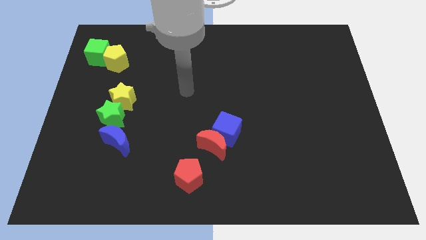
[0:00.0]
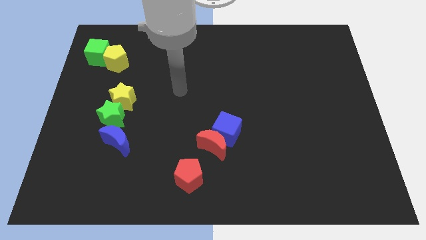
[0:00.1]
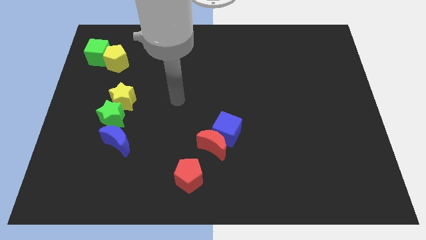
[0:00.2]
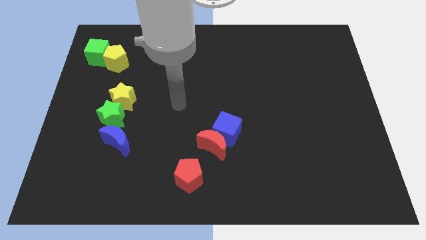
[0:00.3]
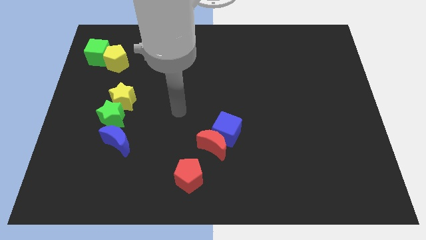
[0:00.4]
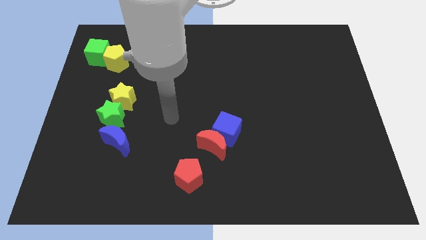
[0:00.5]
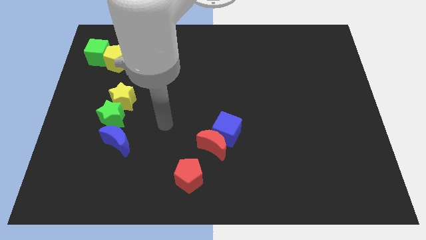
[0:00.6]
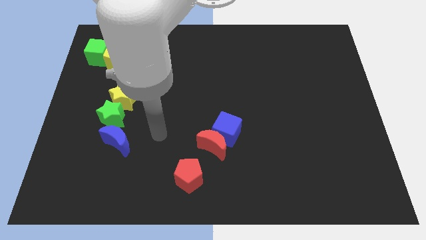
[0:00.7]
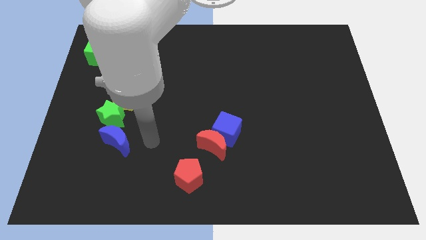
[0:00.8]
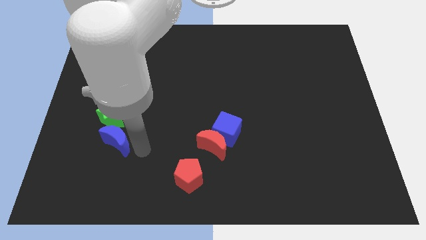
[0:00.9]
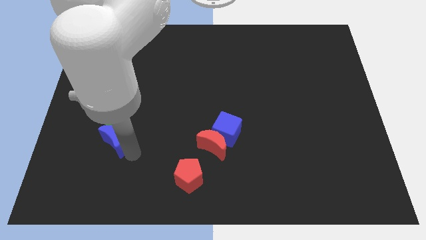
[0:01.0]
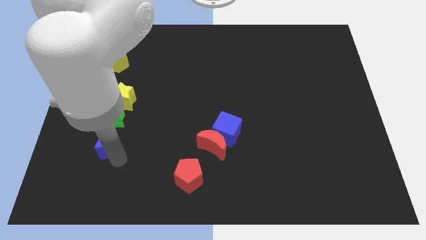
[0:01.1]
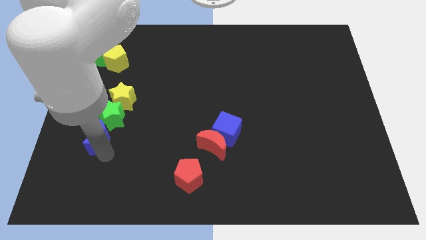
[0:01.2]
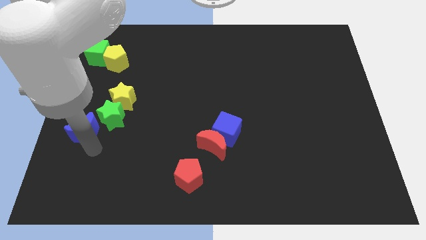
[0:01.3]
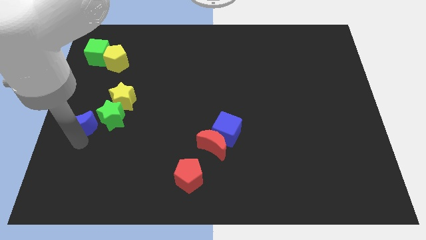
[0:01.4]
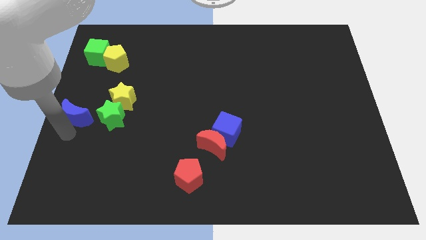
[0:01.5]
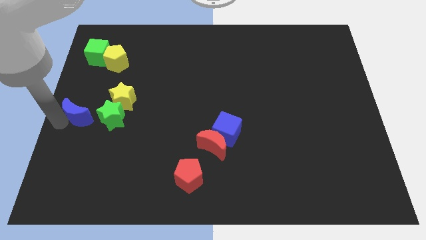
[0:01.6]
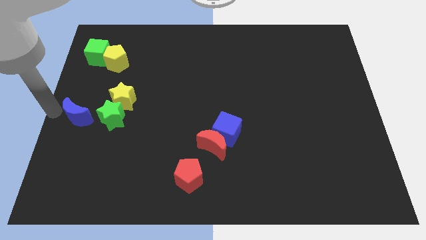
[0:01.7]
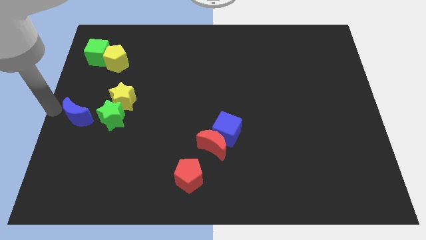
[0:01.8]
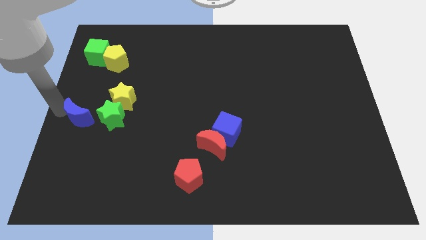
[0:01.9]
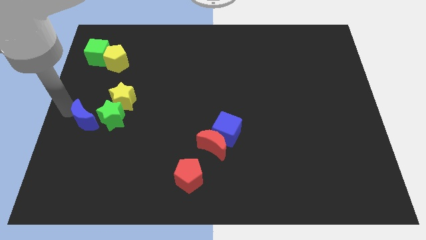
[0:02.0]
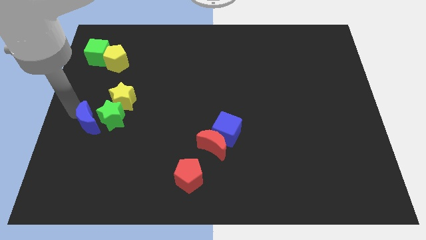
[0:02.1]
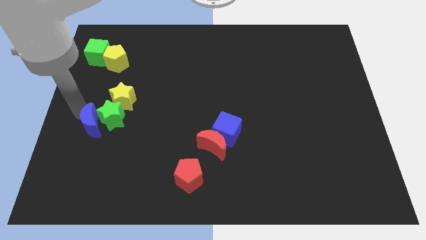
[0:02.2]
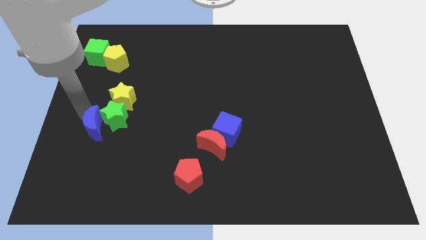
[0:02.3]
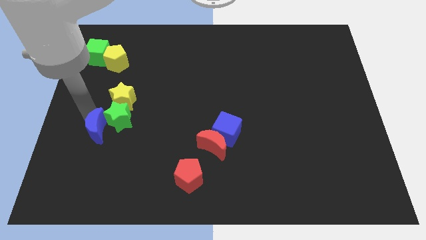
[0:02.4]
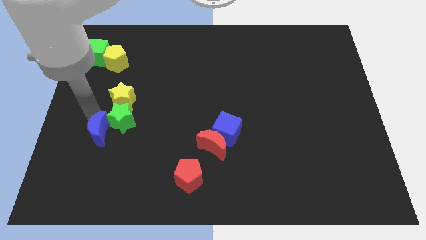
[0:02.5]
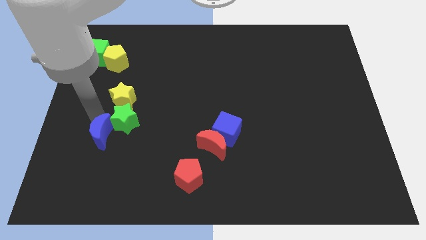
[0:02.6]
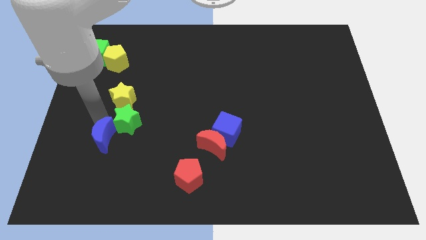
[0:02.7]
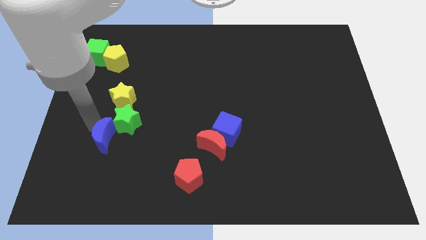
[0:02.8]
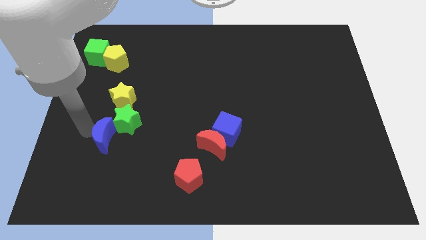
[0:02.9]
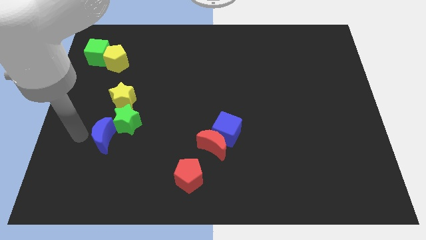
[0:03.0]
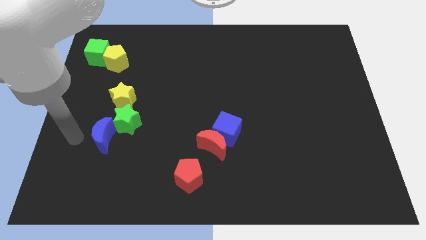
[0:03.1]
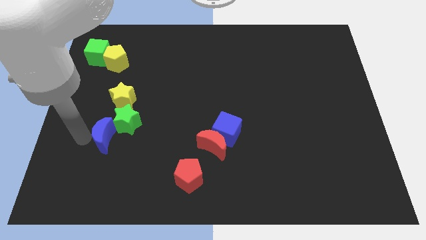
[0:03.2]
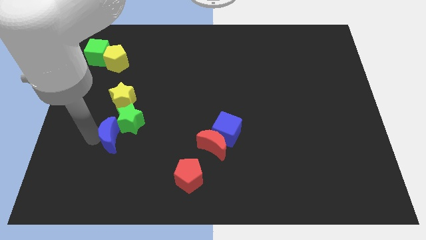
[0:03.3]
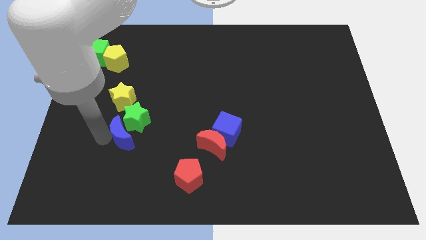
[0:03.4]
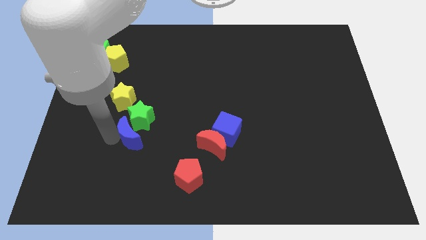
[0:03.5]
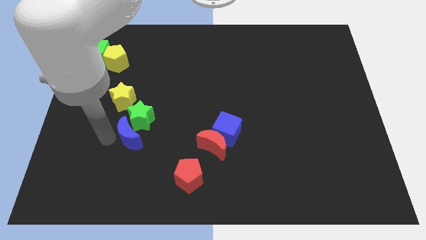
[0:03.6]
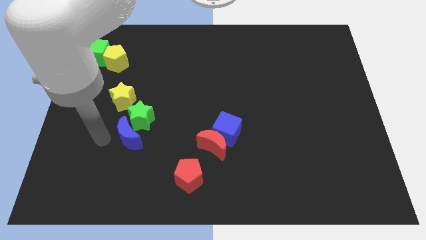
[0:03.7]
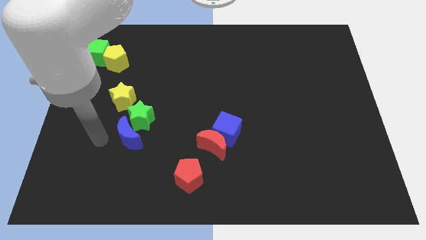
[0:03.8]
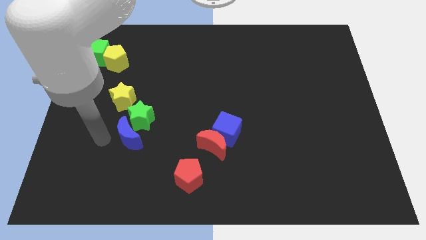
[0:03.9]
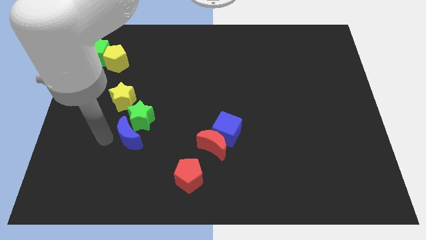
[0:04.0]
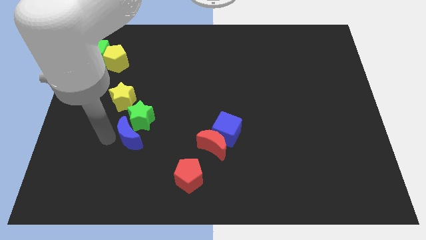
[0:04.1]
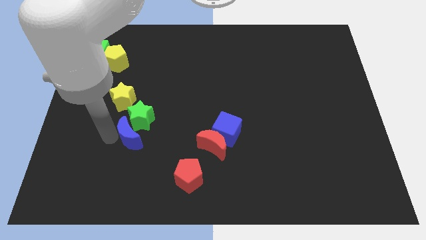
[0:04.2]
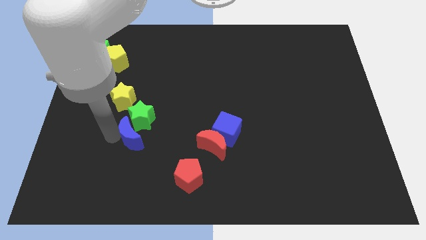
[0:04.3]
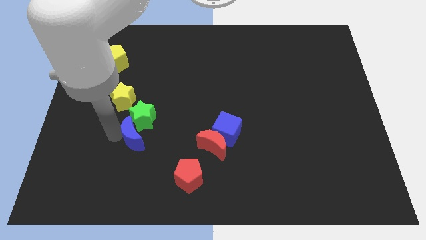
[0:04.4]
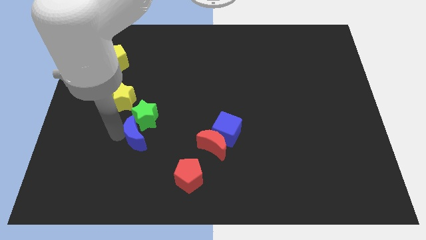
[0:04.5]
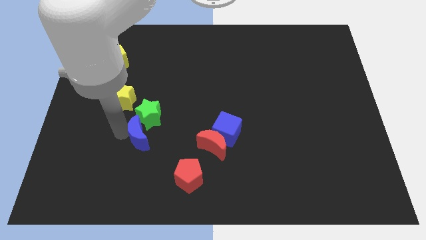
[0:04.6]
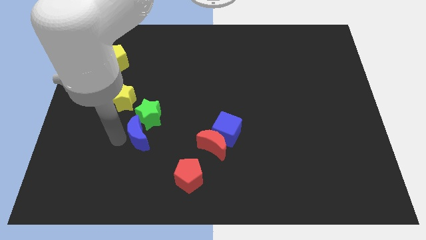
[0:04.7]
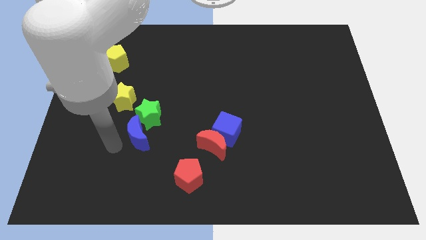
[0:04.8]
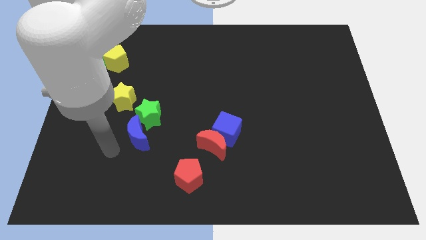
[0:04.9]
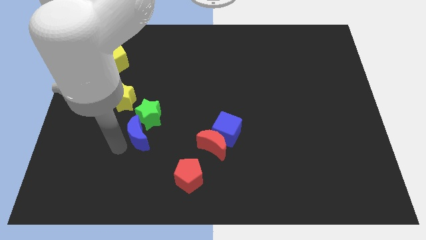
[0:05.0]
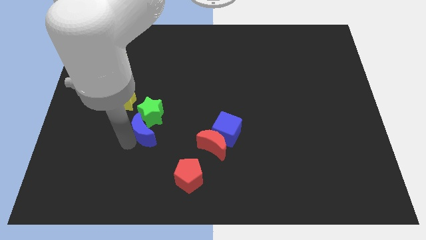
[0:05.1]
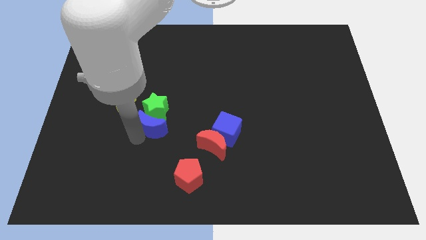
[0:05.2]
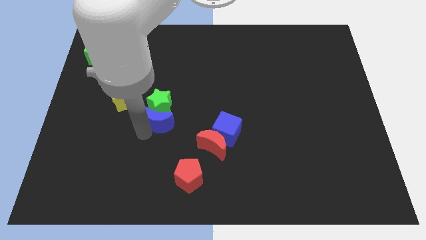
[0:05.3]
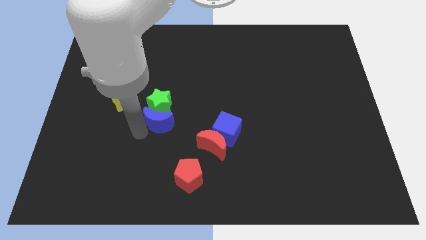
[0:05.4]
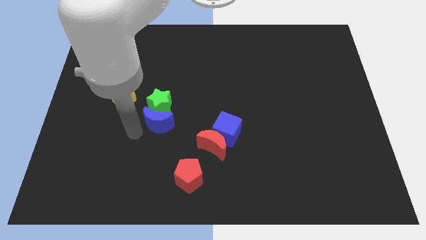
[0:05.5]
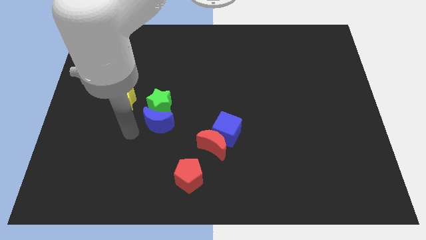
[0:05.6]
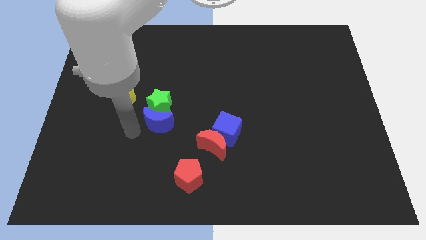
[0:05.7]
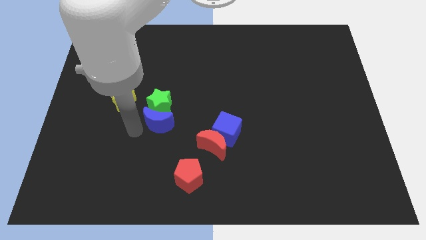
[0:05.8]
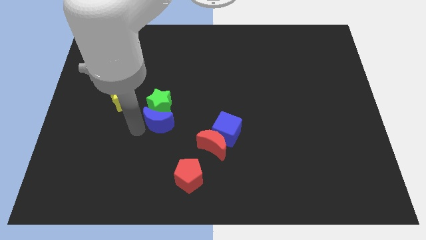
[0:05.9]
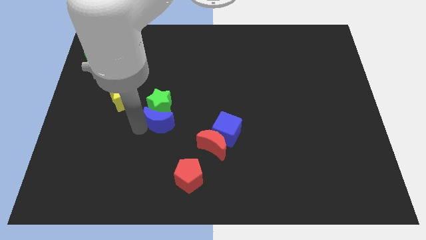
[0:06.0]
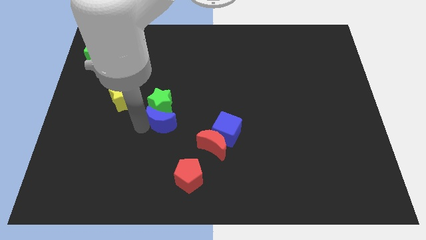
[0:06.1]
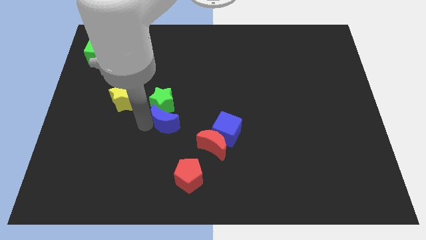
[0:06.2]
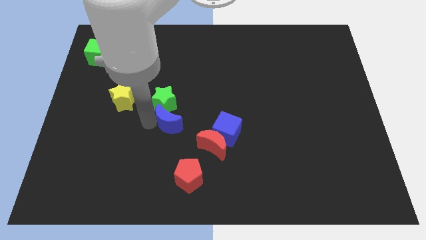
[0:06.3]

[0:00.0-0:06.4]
move the blue moon to the middle of the board
